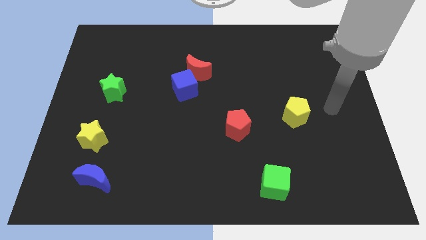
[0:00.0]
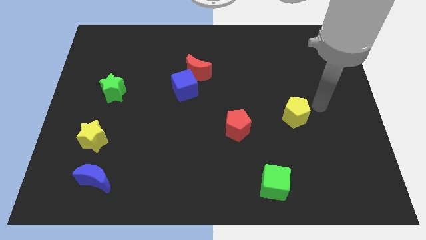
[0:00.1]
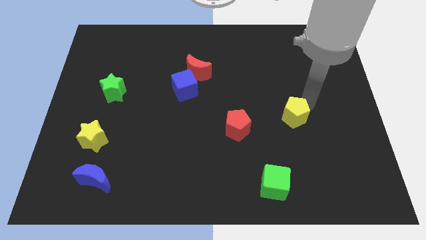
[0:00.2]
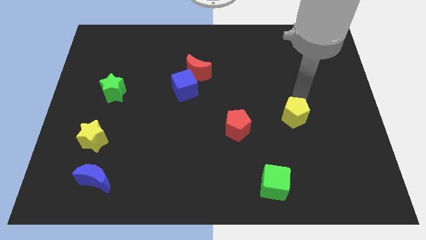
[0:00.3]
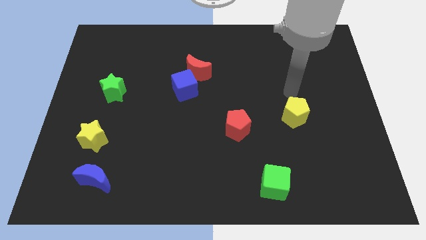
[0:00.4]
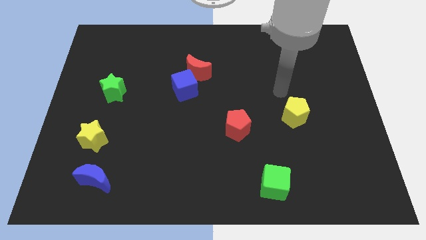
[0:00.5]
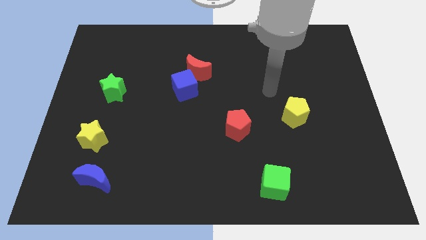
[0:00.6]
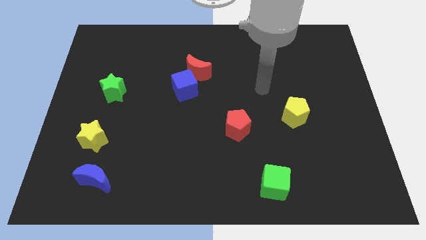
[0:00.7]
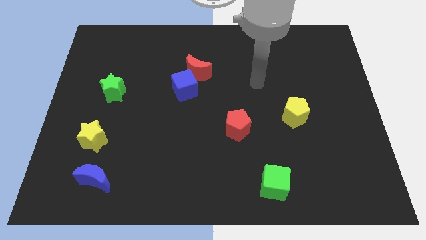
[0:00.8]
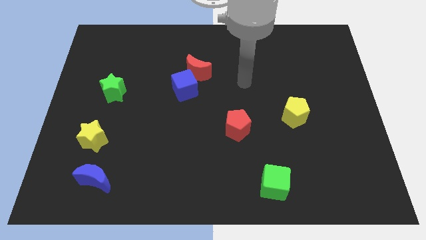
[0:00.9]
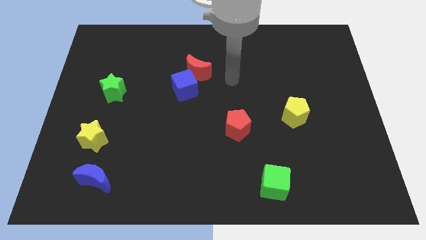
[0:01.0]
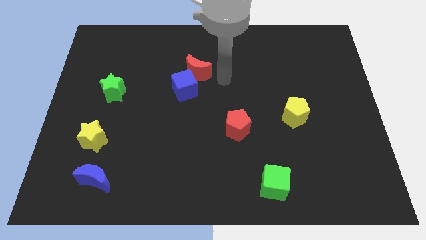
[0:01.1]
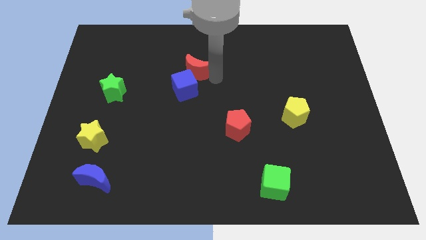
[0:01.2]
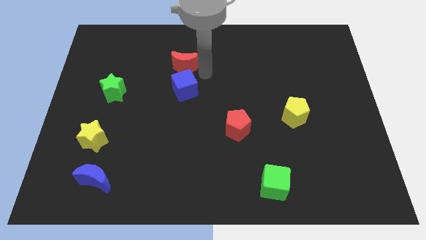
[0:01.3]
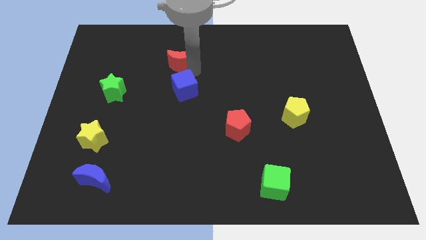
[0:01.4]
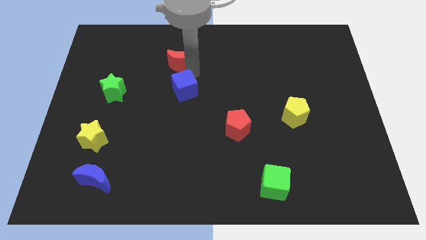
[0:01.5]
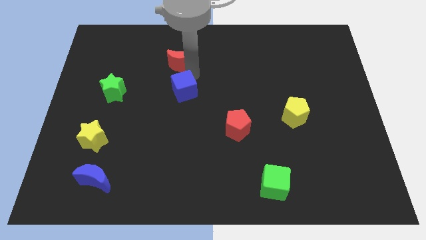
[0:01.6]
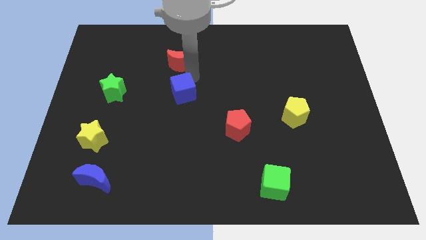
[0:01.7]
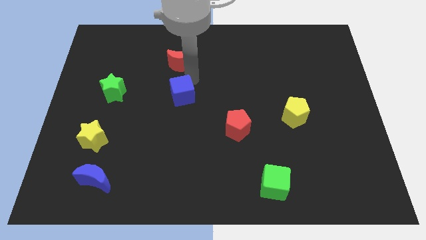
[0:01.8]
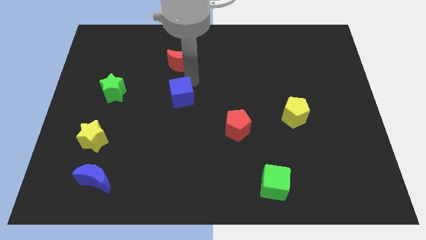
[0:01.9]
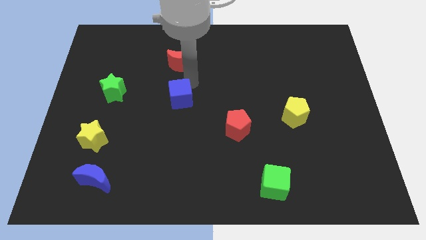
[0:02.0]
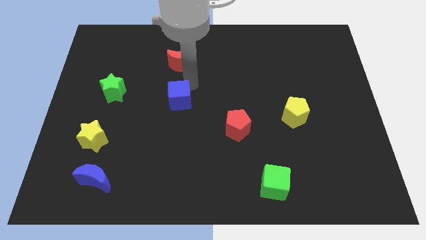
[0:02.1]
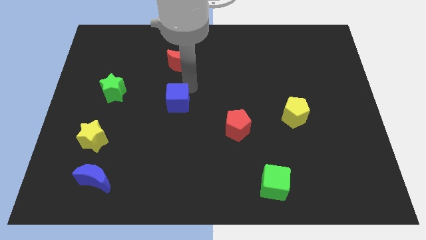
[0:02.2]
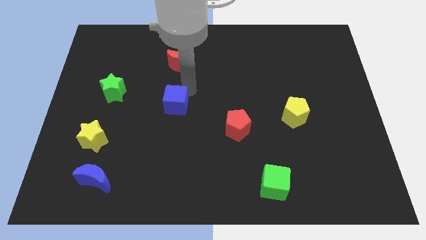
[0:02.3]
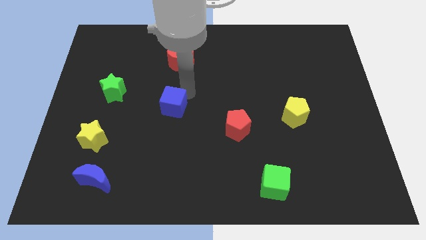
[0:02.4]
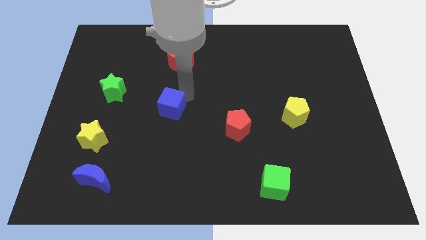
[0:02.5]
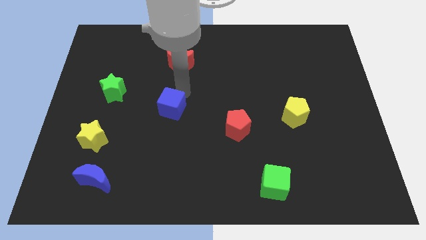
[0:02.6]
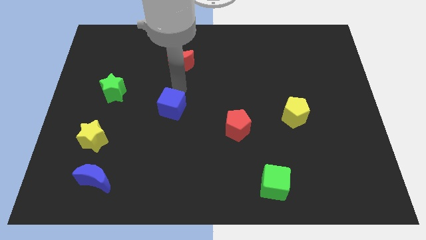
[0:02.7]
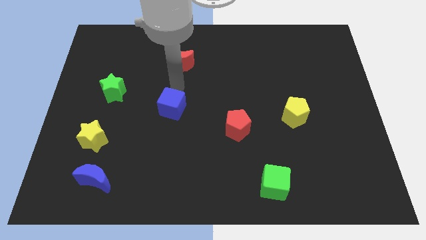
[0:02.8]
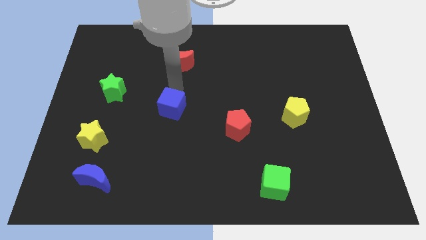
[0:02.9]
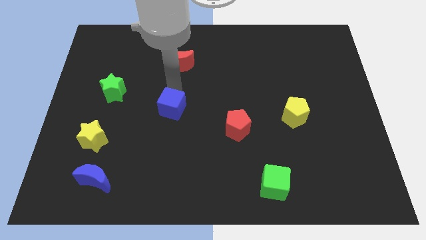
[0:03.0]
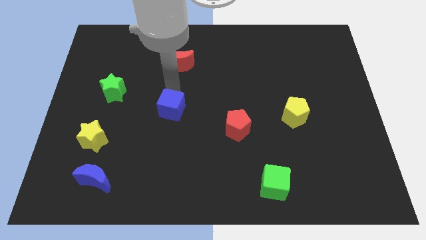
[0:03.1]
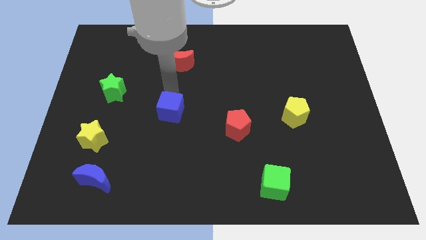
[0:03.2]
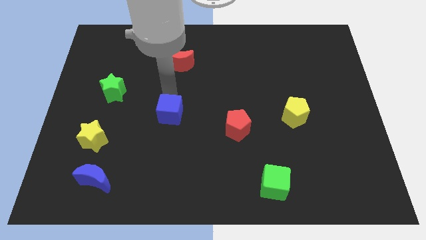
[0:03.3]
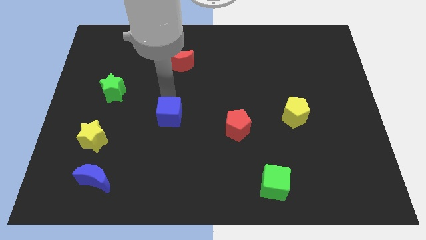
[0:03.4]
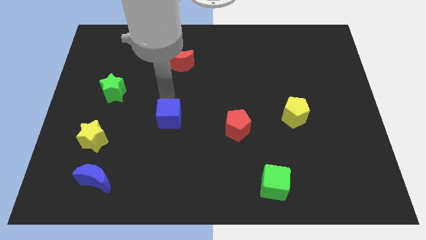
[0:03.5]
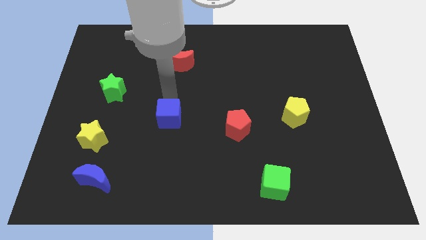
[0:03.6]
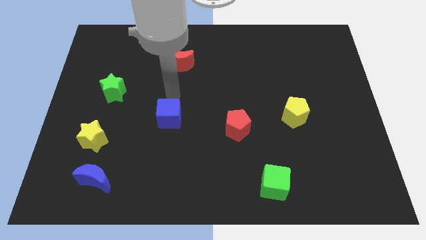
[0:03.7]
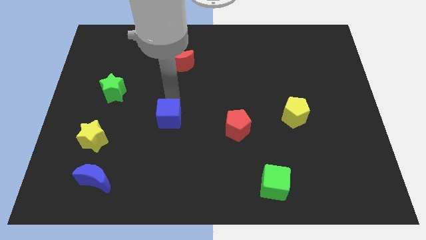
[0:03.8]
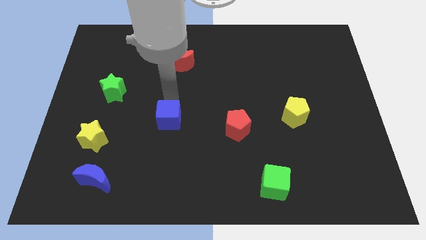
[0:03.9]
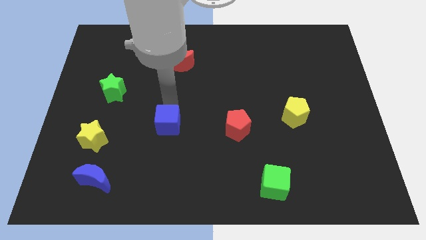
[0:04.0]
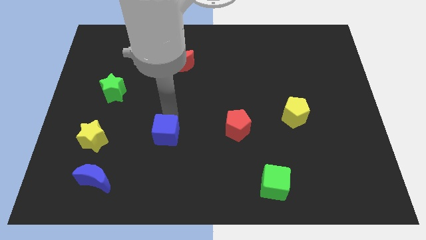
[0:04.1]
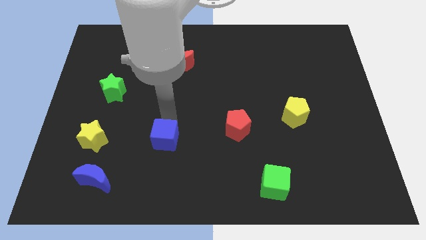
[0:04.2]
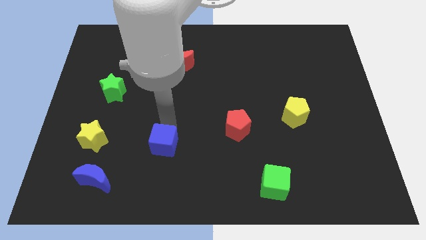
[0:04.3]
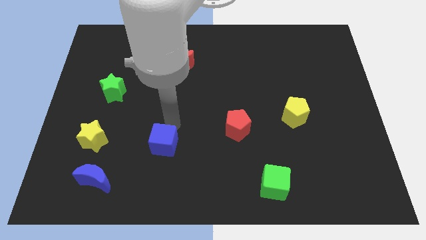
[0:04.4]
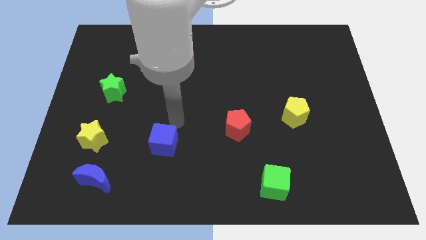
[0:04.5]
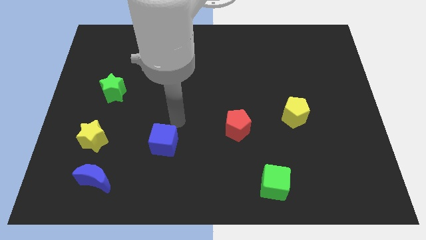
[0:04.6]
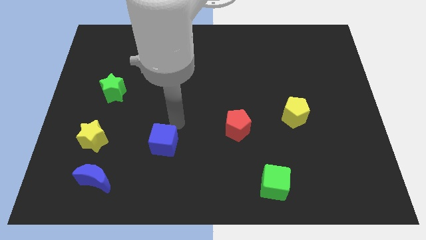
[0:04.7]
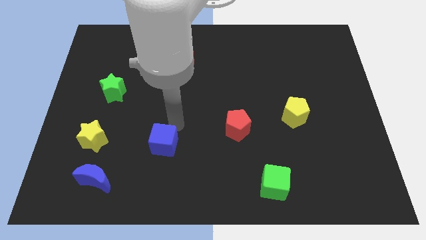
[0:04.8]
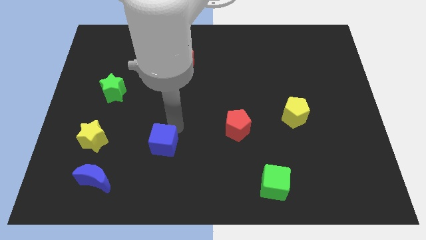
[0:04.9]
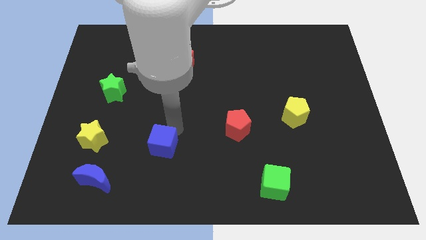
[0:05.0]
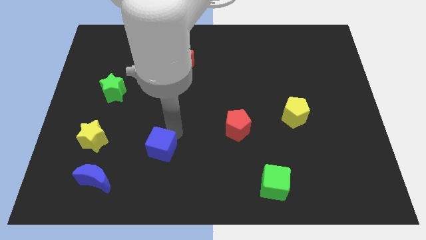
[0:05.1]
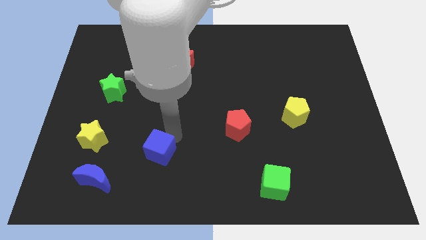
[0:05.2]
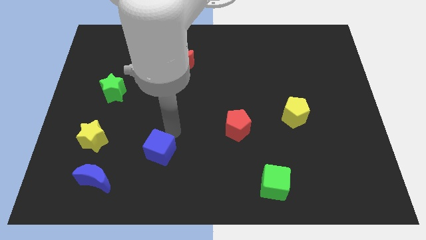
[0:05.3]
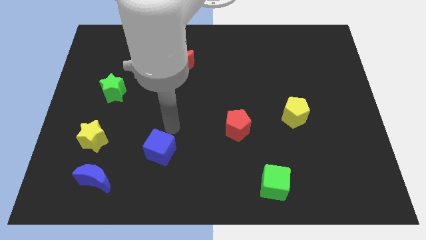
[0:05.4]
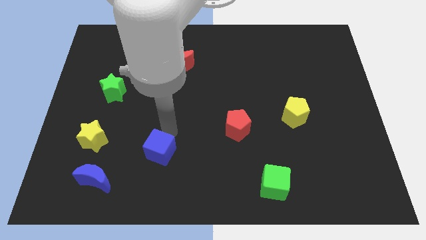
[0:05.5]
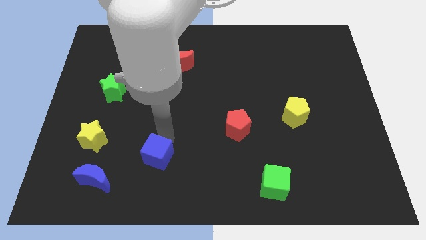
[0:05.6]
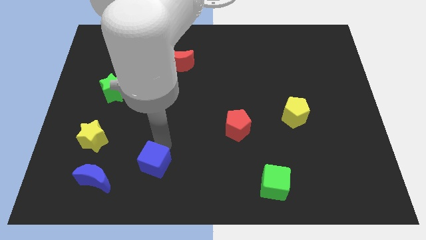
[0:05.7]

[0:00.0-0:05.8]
put the blue cube to the right side of the blue moon

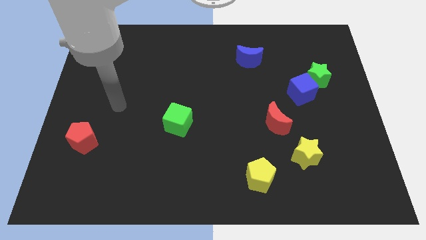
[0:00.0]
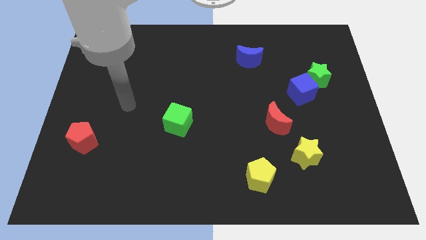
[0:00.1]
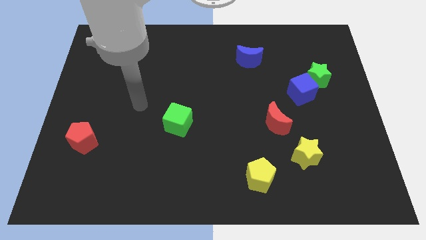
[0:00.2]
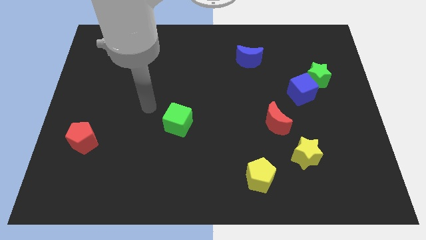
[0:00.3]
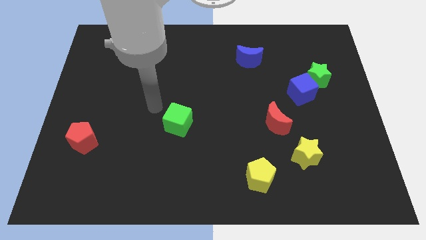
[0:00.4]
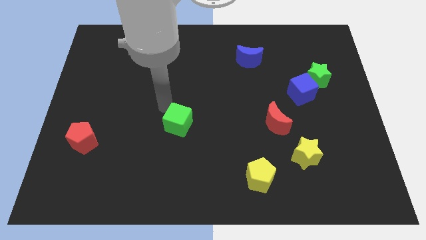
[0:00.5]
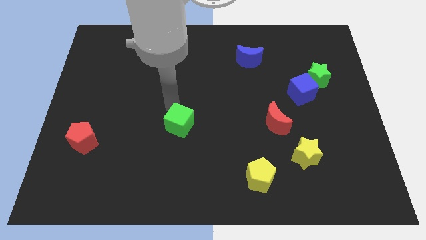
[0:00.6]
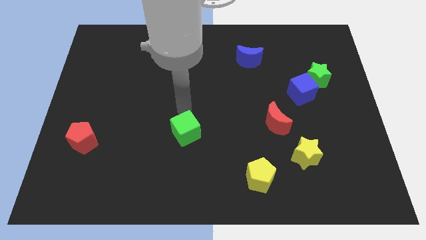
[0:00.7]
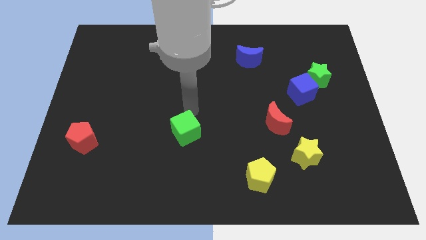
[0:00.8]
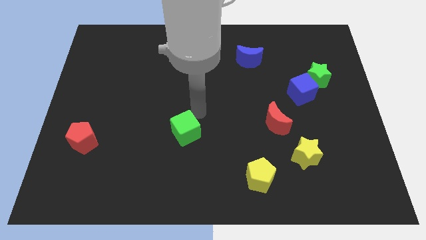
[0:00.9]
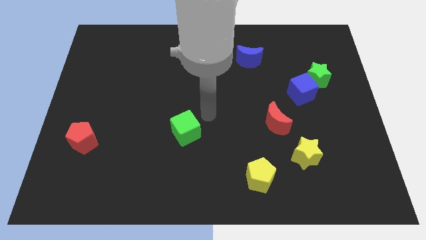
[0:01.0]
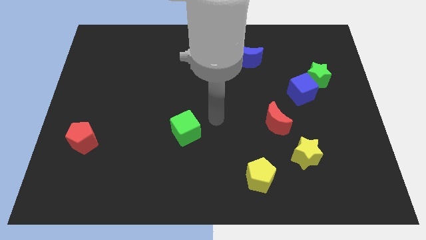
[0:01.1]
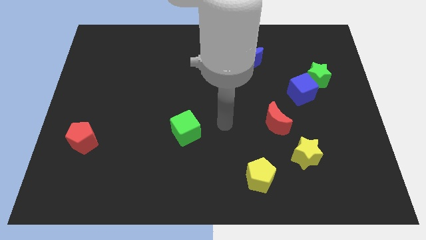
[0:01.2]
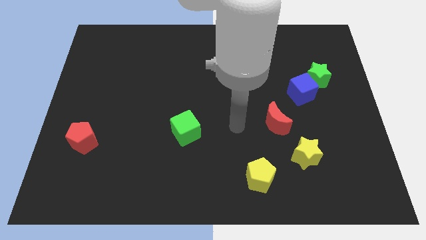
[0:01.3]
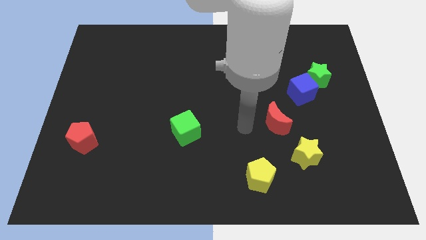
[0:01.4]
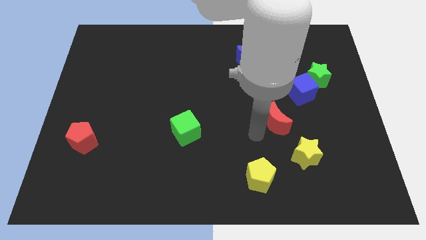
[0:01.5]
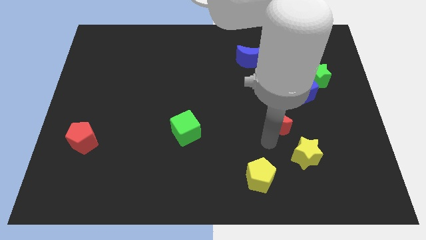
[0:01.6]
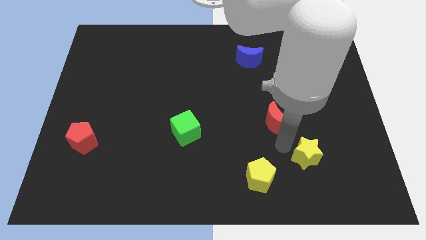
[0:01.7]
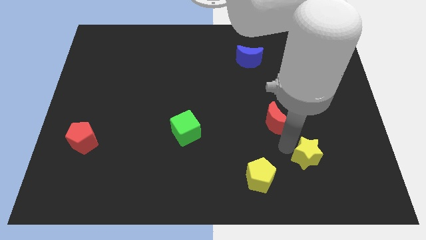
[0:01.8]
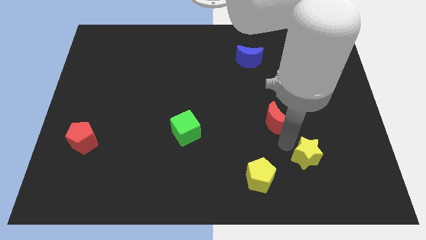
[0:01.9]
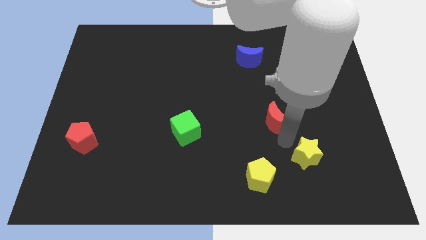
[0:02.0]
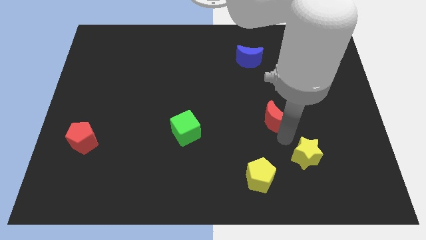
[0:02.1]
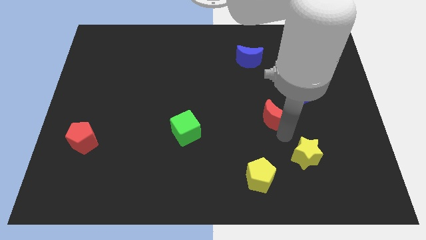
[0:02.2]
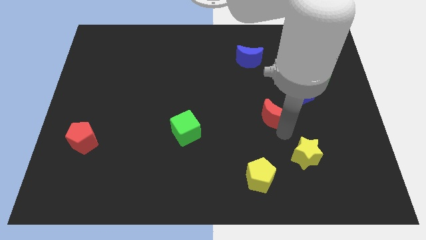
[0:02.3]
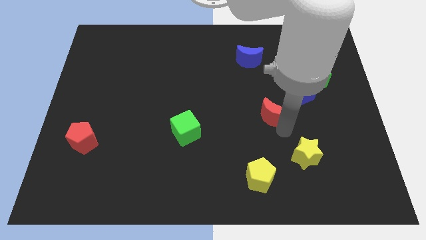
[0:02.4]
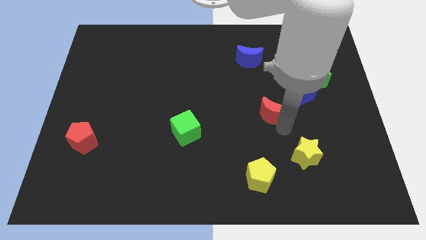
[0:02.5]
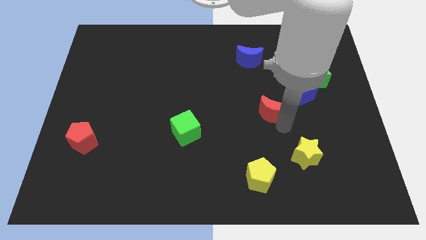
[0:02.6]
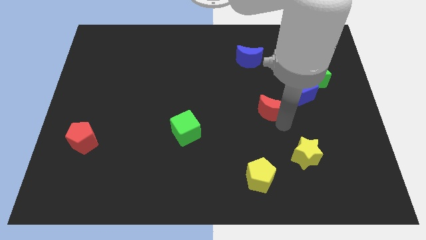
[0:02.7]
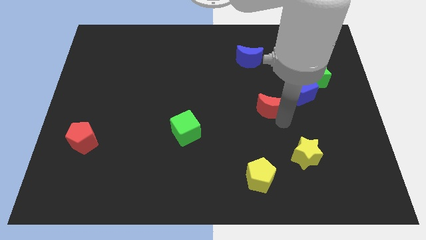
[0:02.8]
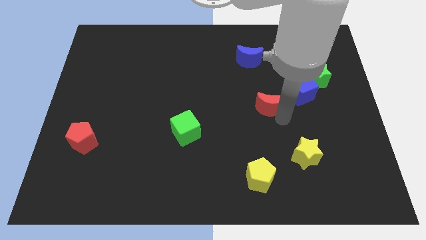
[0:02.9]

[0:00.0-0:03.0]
slide the red moon to the left side of the blue cube
